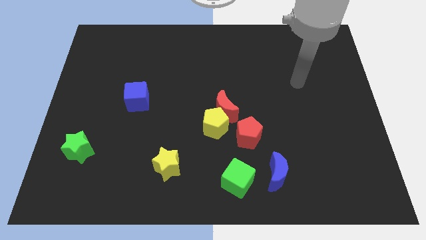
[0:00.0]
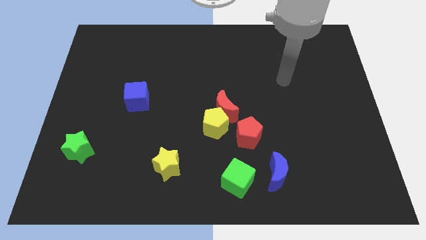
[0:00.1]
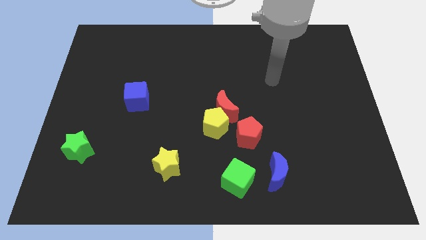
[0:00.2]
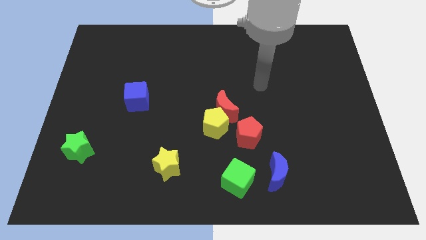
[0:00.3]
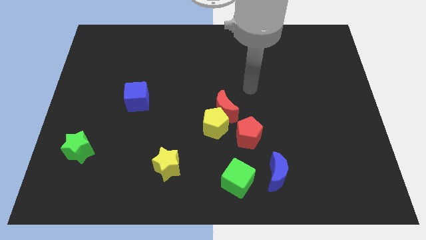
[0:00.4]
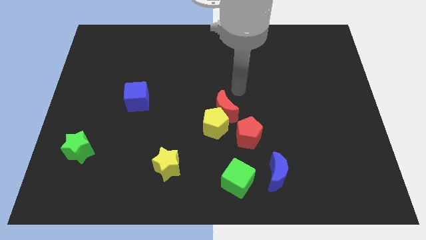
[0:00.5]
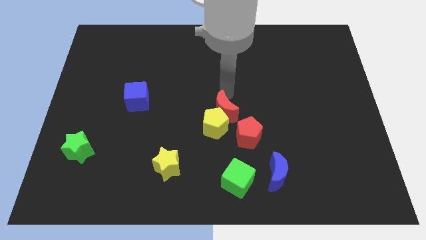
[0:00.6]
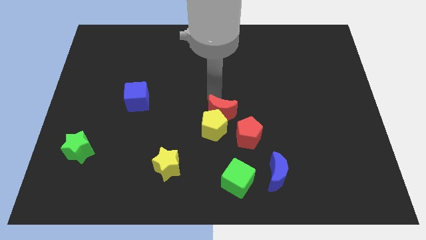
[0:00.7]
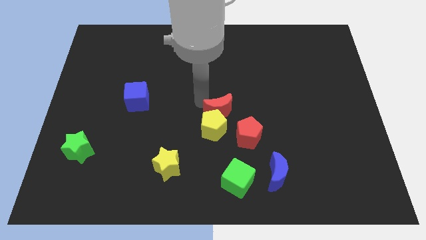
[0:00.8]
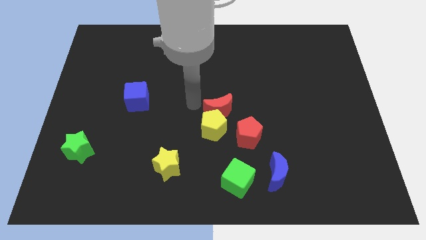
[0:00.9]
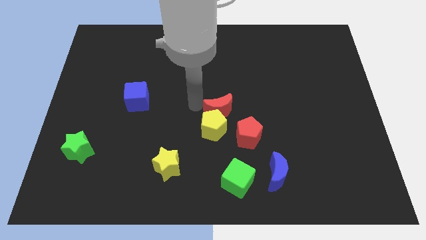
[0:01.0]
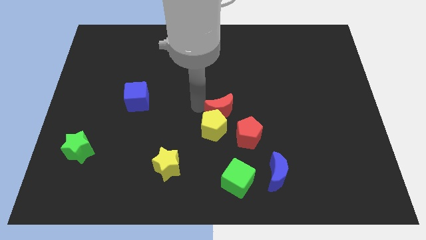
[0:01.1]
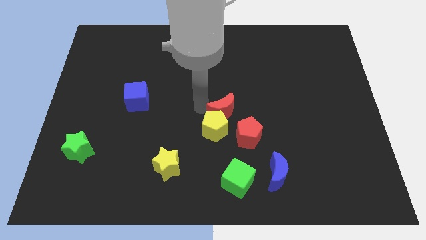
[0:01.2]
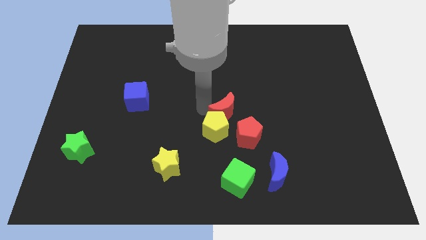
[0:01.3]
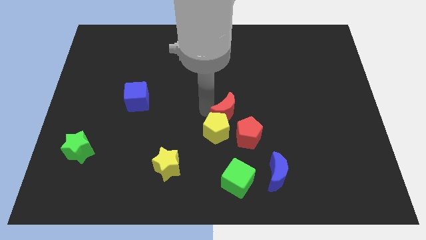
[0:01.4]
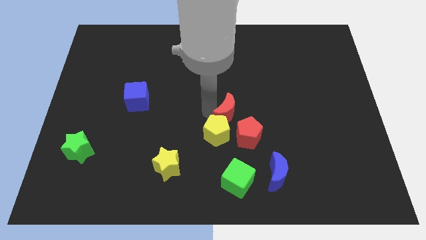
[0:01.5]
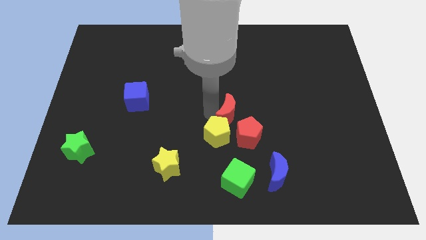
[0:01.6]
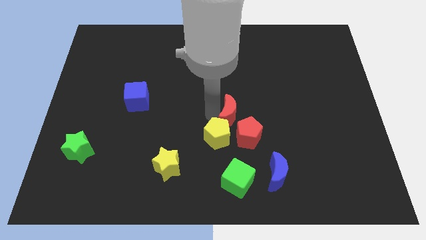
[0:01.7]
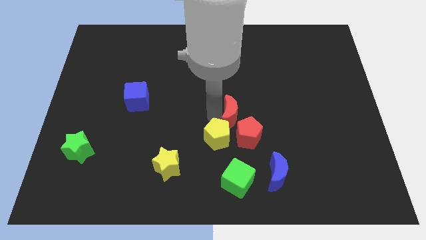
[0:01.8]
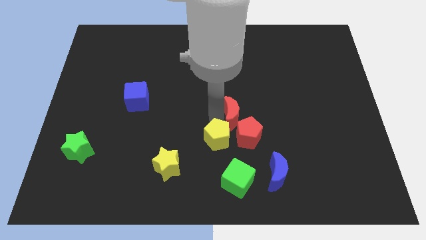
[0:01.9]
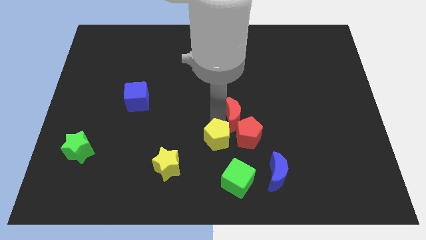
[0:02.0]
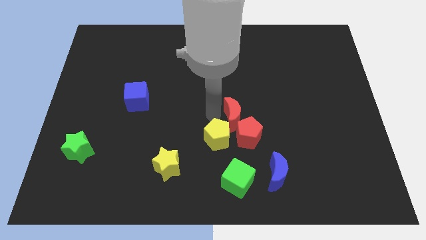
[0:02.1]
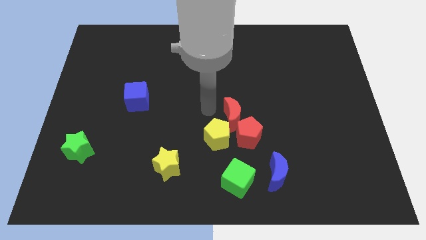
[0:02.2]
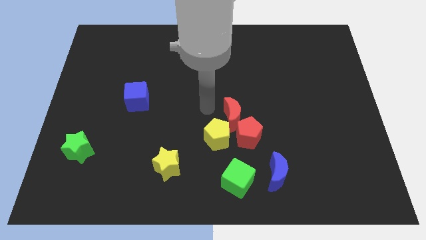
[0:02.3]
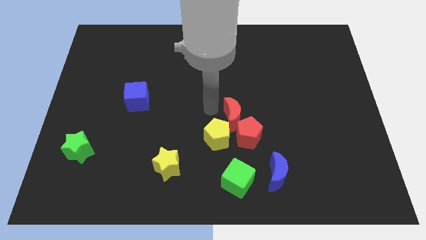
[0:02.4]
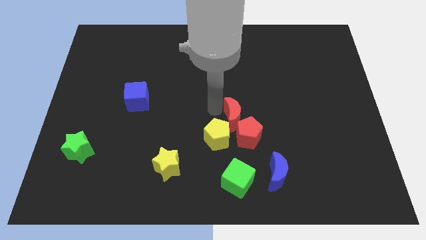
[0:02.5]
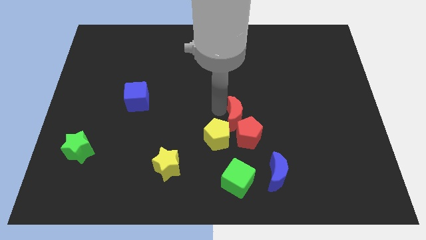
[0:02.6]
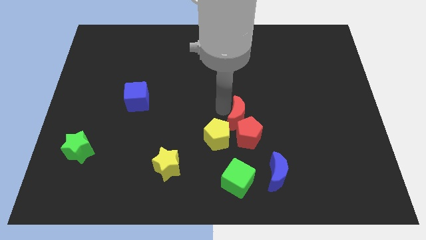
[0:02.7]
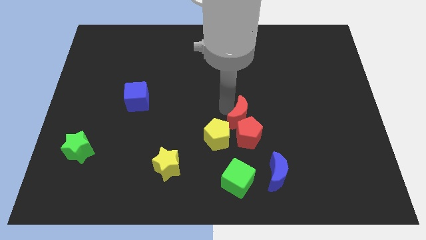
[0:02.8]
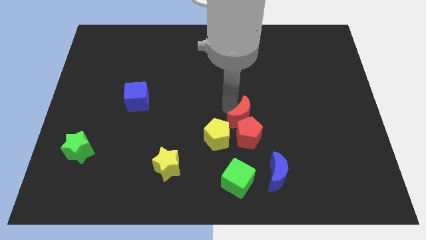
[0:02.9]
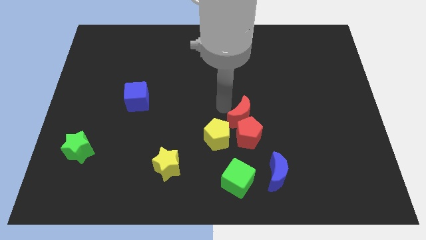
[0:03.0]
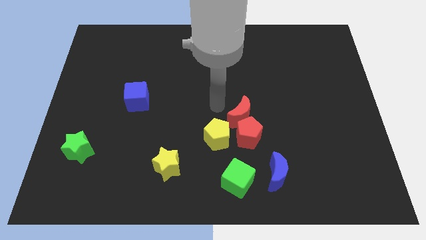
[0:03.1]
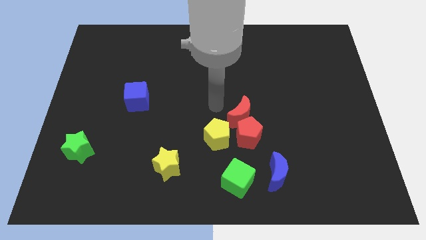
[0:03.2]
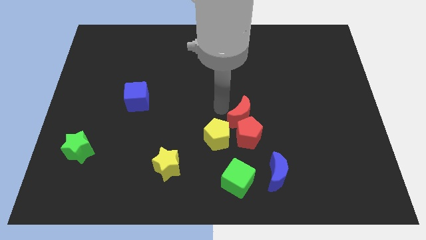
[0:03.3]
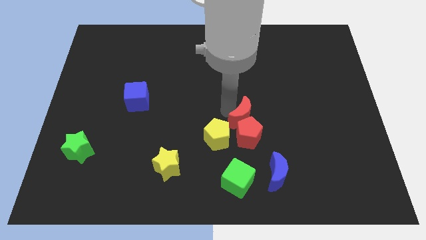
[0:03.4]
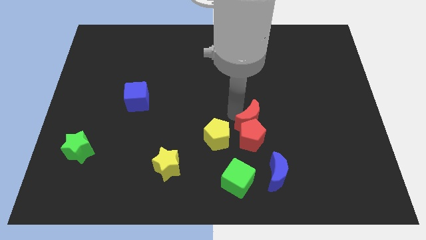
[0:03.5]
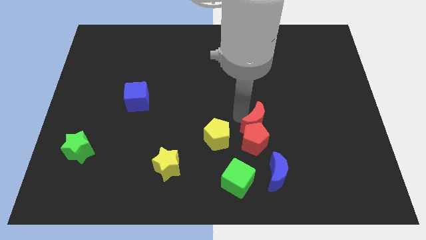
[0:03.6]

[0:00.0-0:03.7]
push the red moon downwards and to the right a little

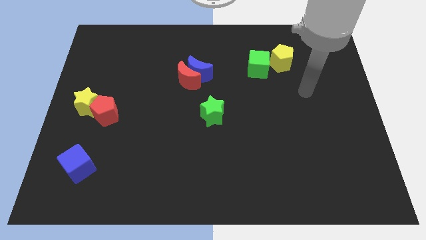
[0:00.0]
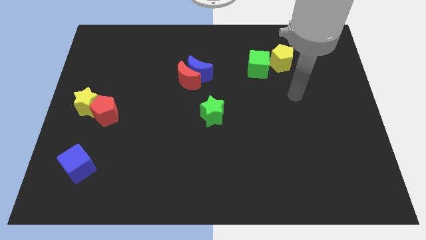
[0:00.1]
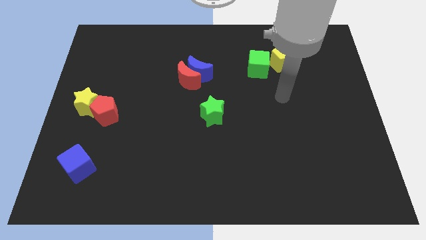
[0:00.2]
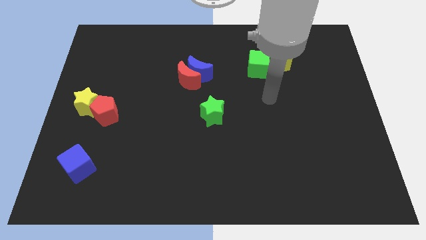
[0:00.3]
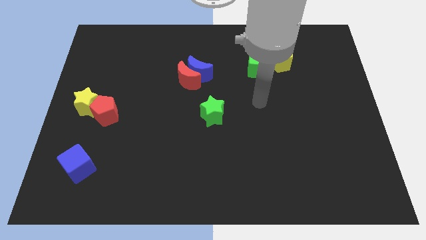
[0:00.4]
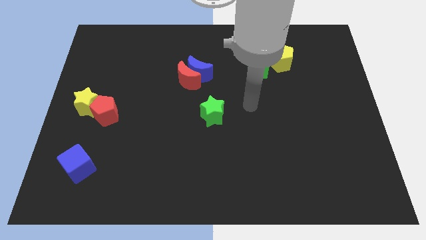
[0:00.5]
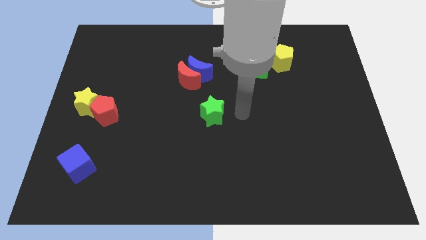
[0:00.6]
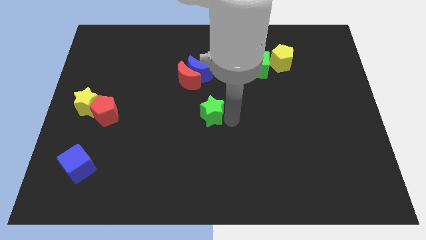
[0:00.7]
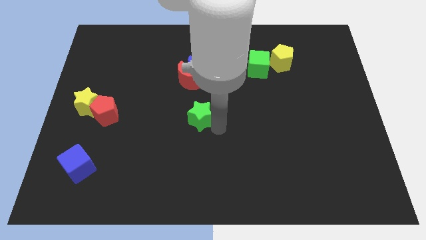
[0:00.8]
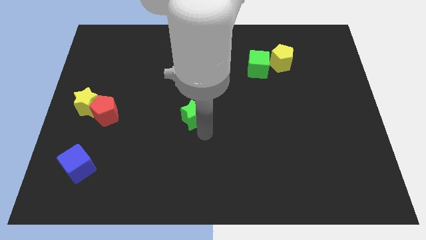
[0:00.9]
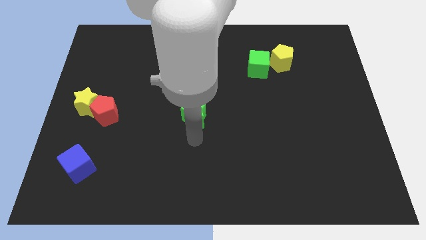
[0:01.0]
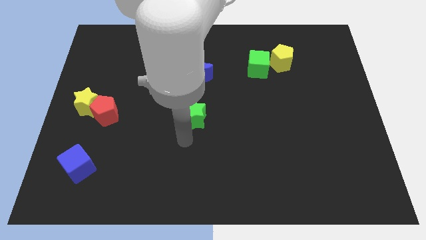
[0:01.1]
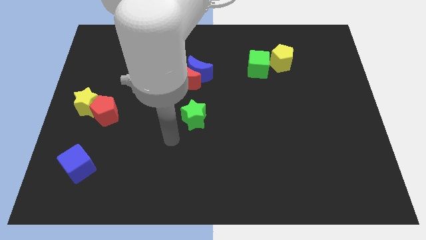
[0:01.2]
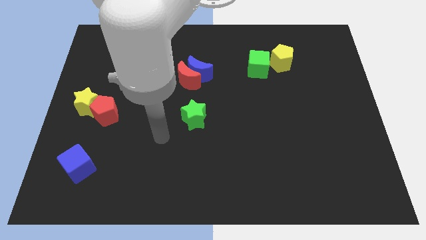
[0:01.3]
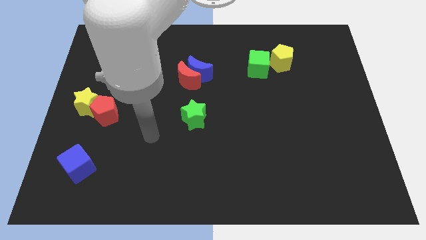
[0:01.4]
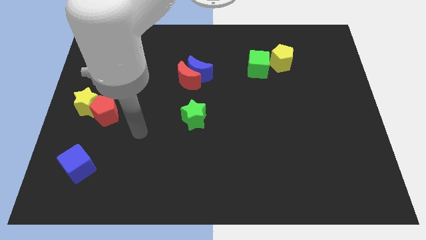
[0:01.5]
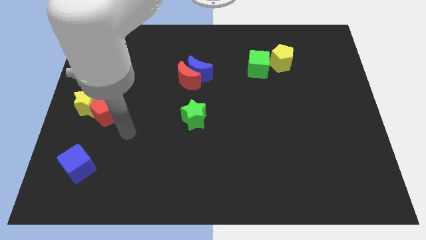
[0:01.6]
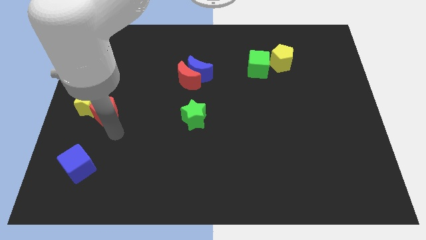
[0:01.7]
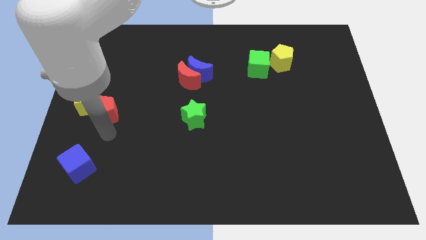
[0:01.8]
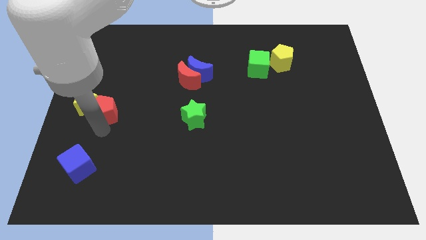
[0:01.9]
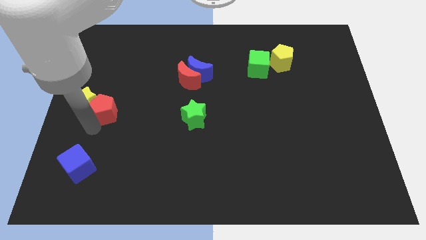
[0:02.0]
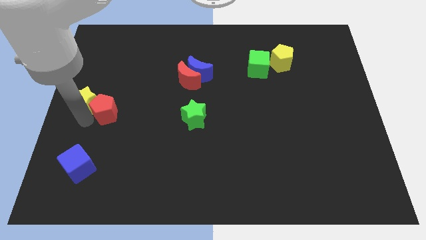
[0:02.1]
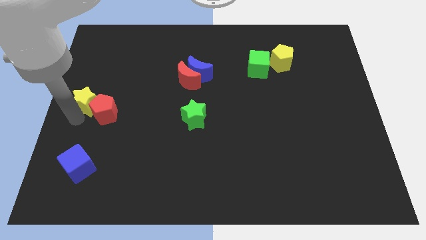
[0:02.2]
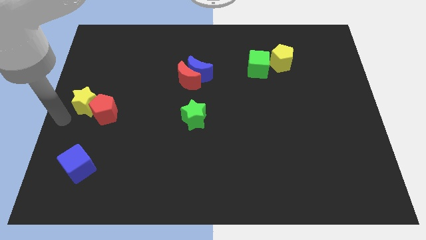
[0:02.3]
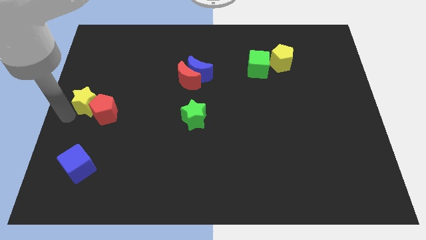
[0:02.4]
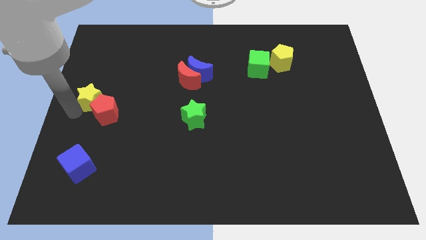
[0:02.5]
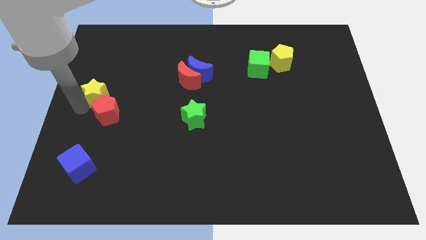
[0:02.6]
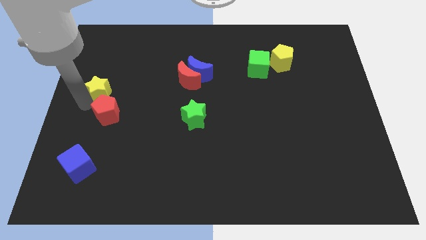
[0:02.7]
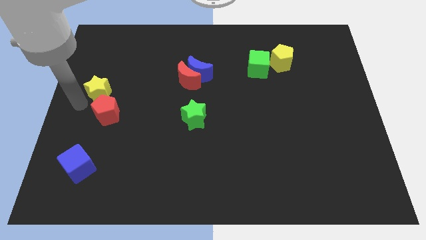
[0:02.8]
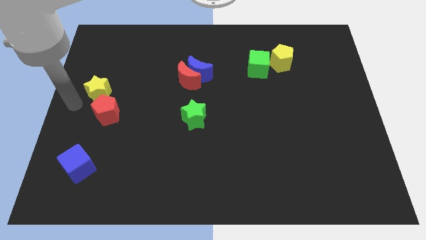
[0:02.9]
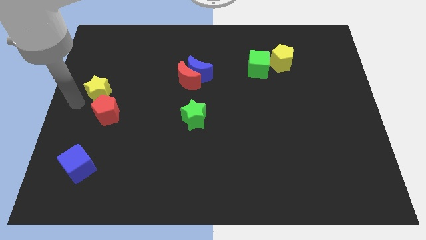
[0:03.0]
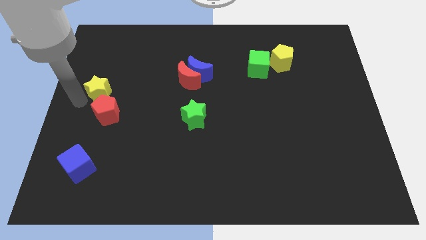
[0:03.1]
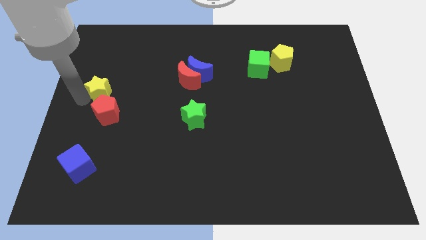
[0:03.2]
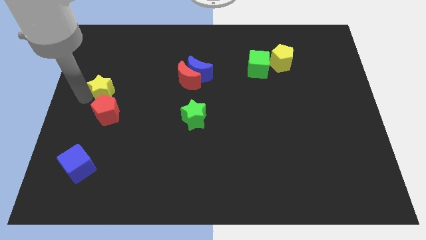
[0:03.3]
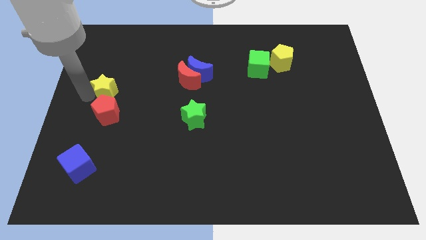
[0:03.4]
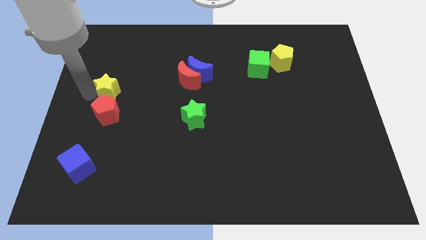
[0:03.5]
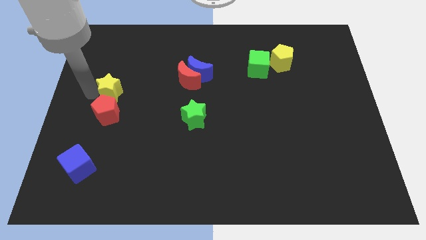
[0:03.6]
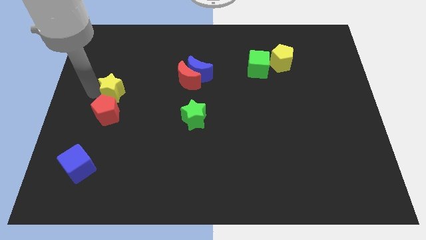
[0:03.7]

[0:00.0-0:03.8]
slightly move the yellow star up and right
